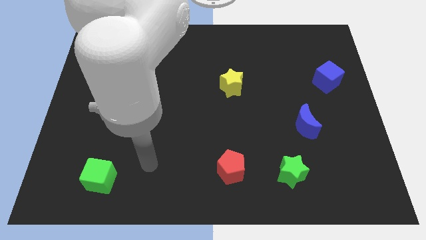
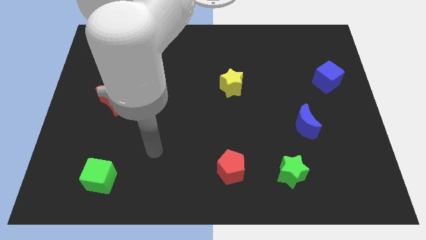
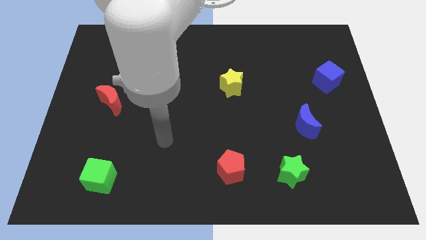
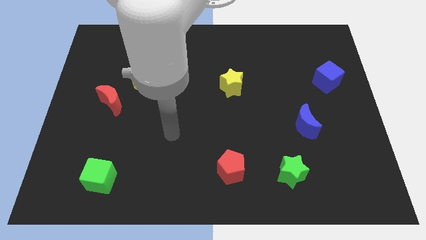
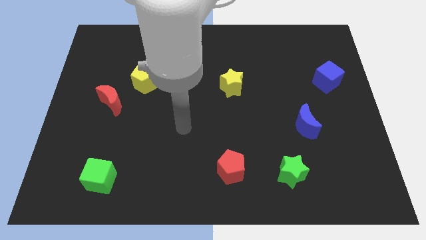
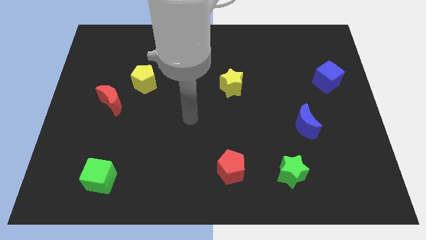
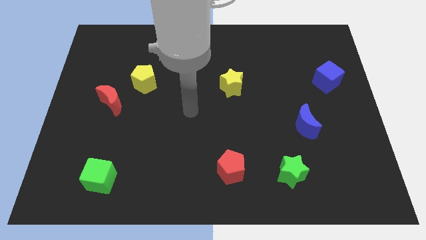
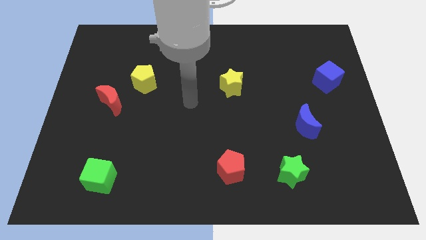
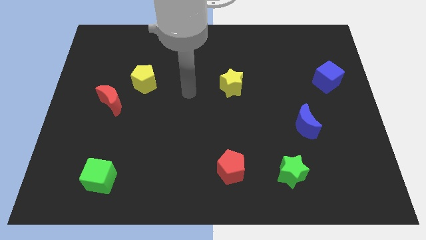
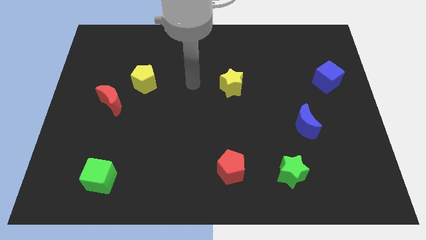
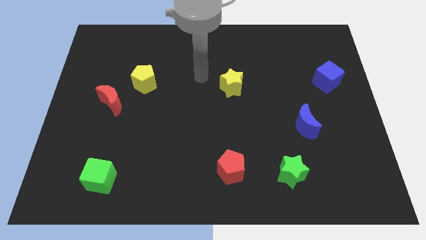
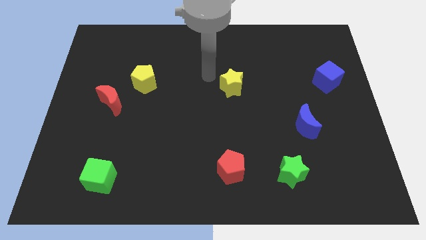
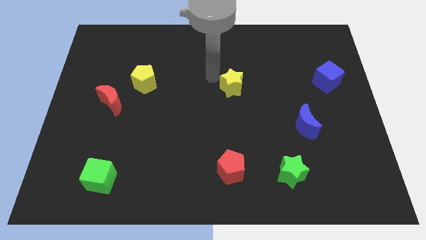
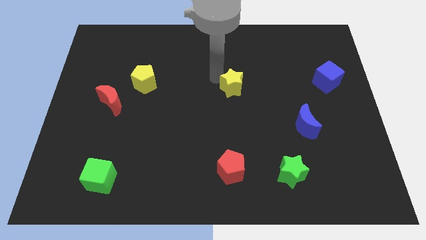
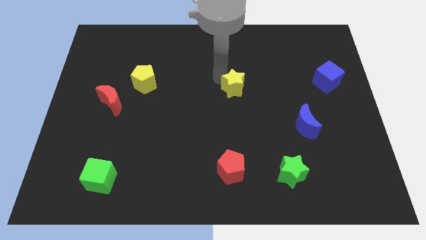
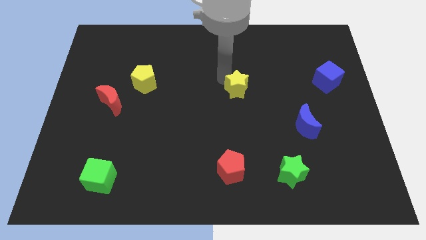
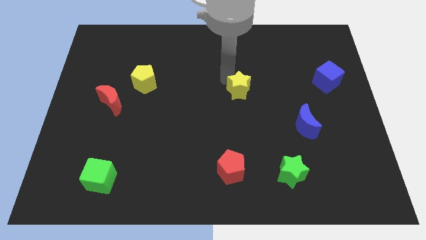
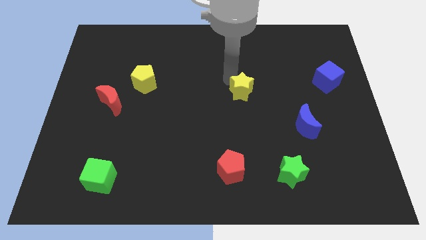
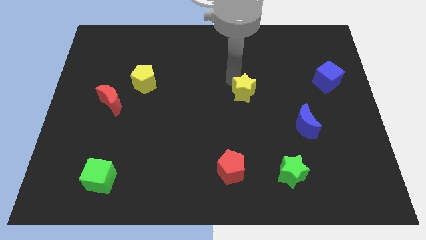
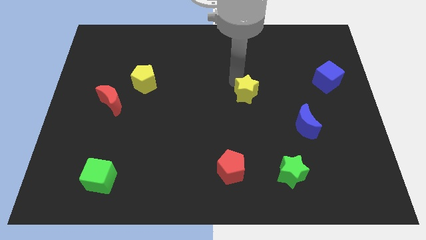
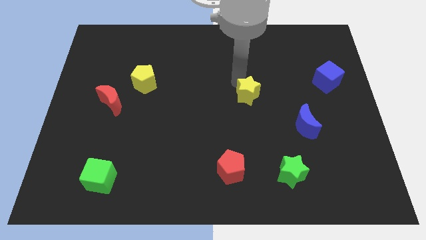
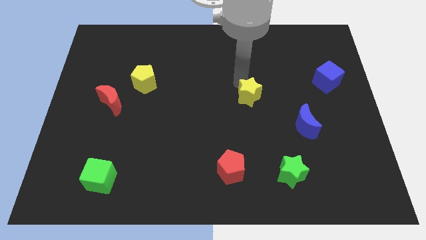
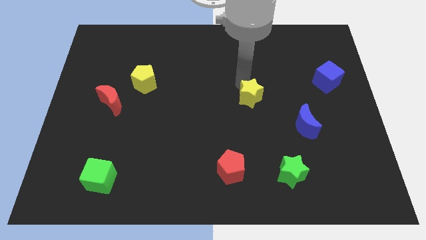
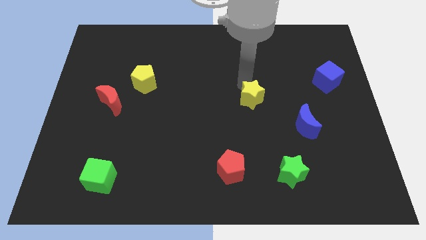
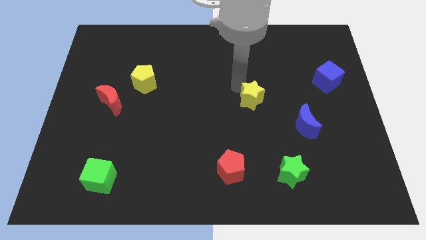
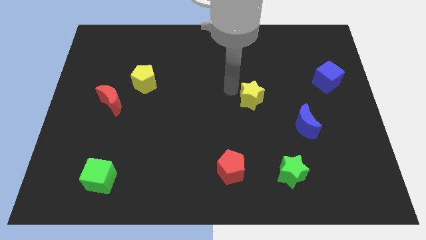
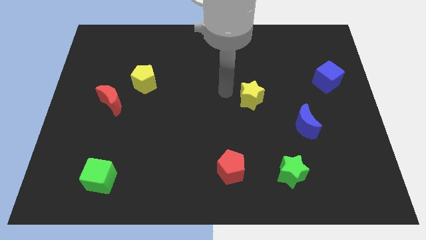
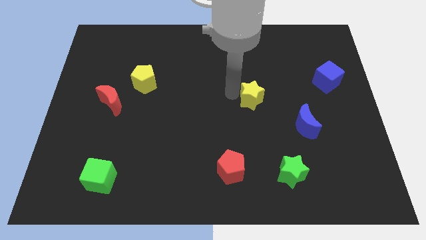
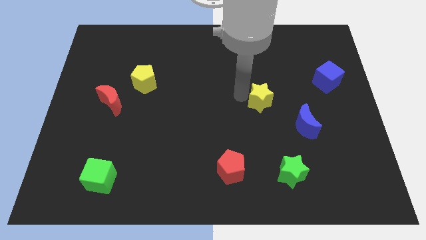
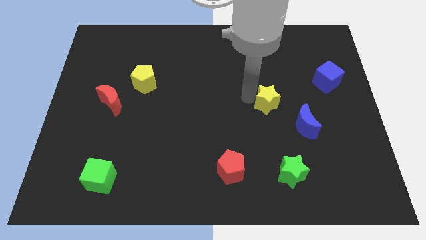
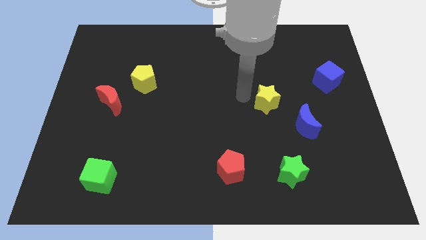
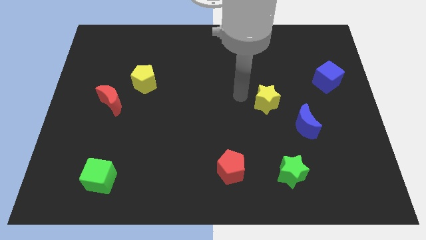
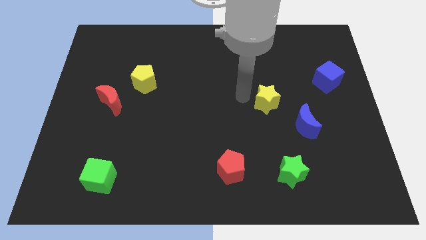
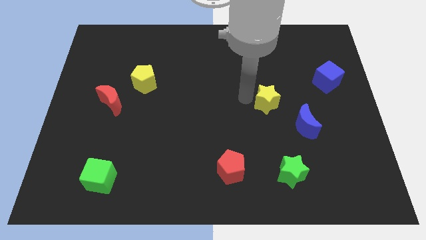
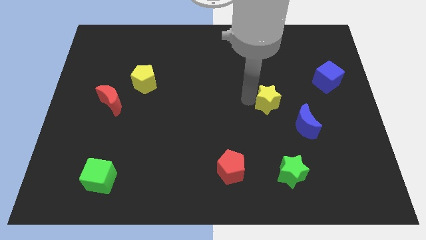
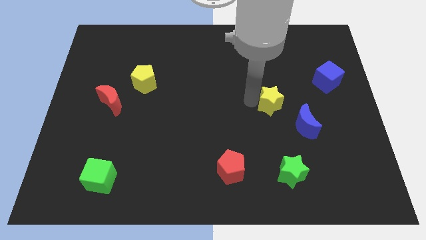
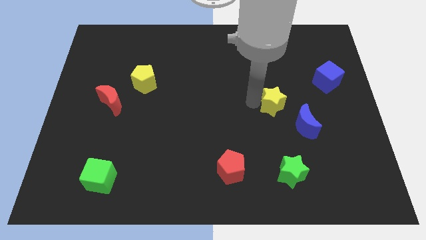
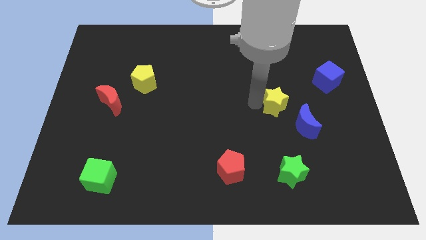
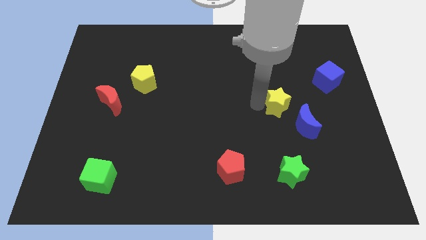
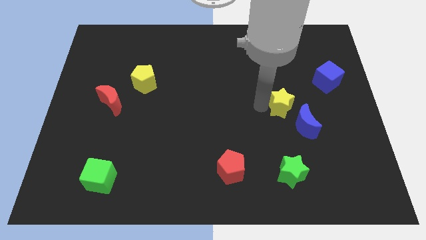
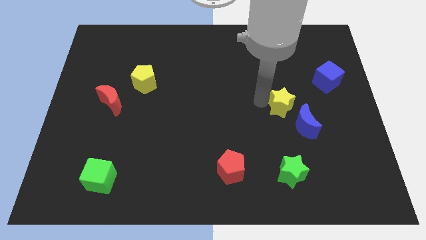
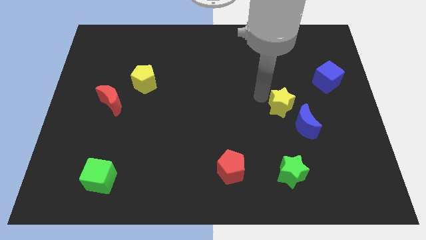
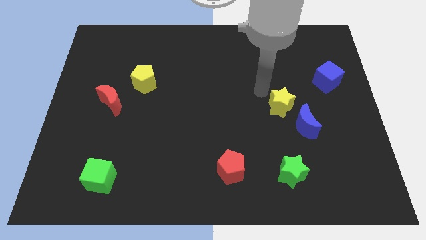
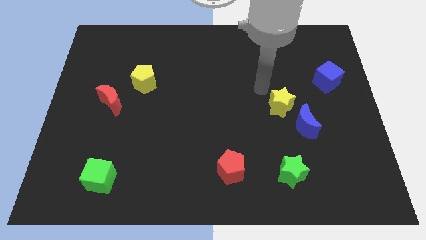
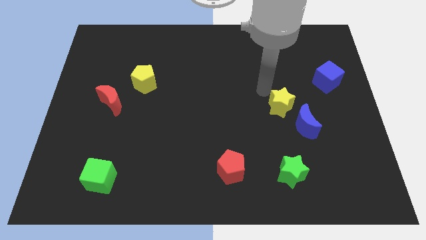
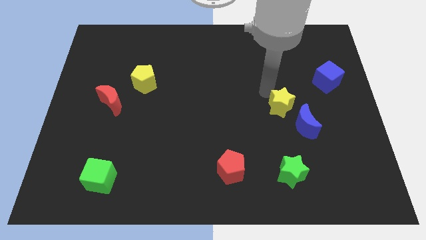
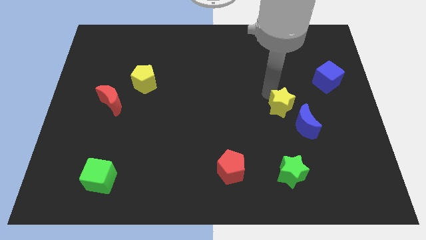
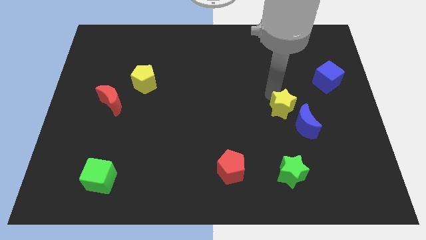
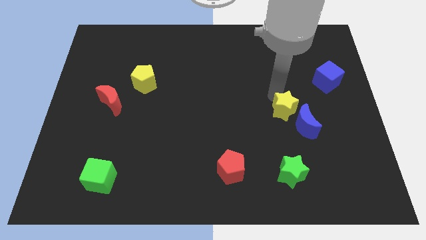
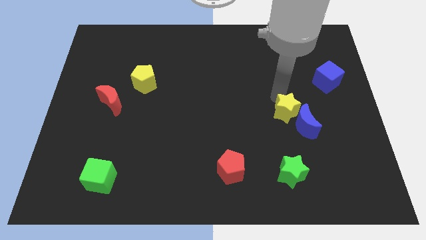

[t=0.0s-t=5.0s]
push the yellow star close to the blue moon

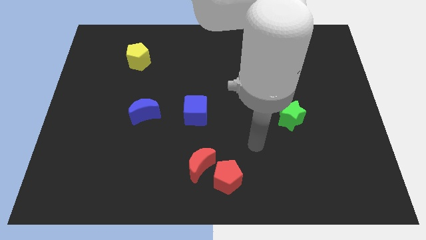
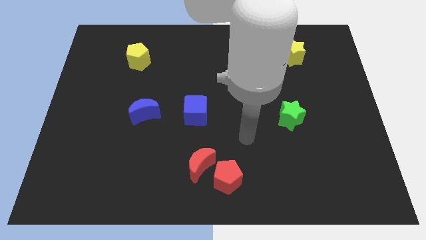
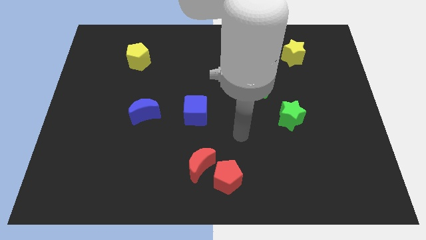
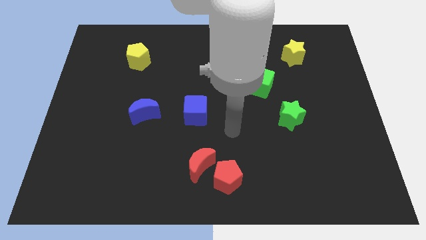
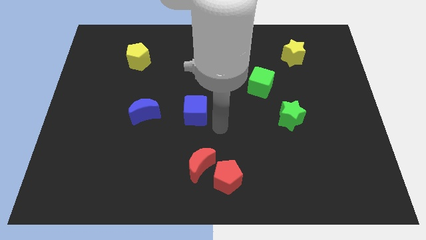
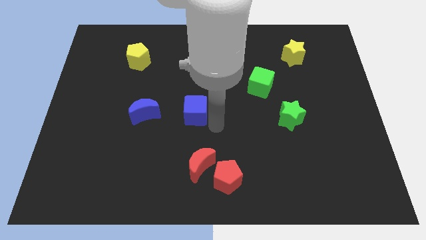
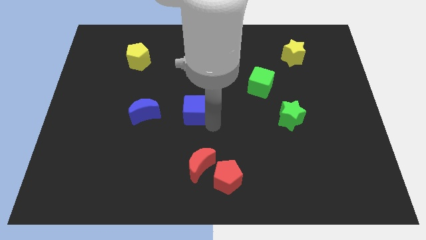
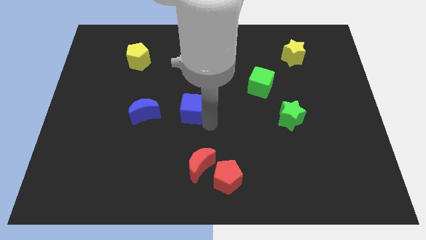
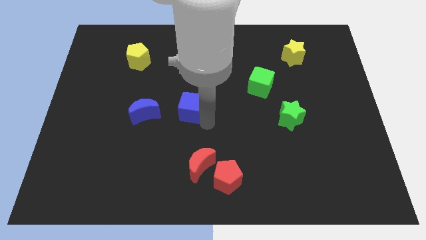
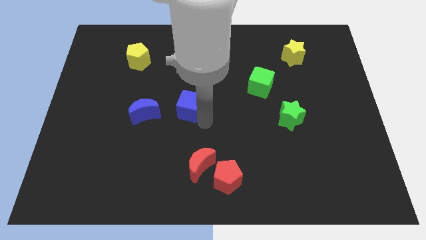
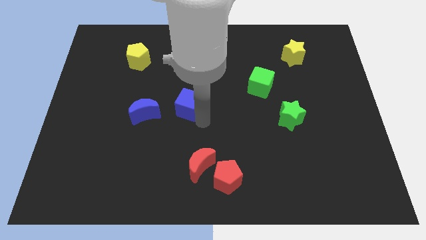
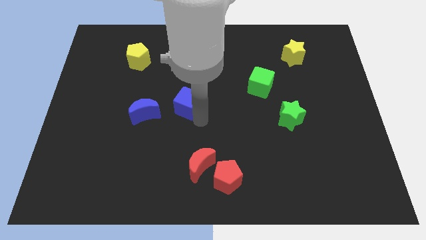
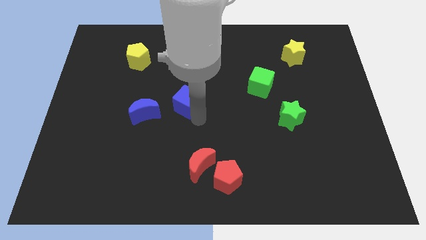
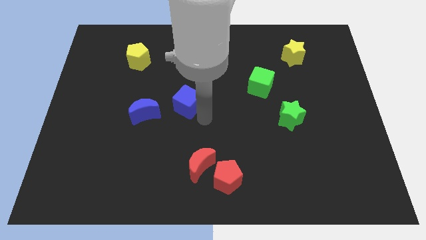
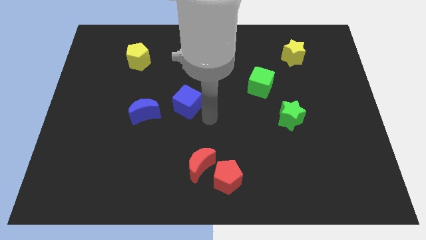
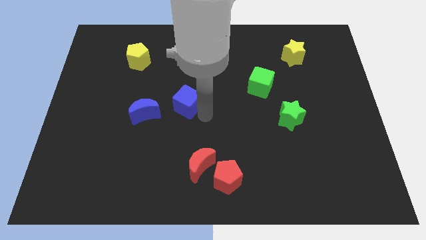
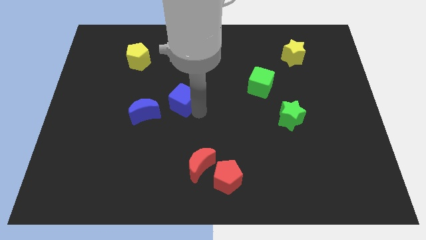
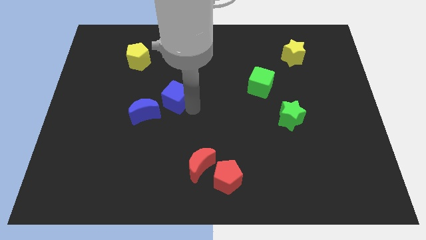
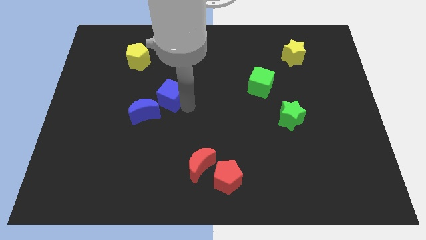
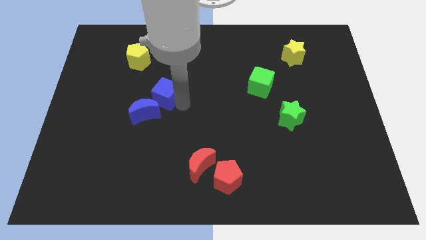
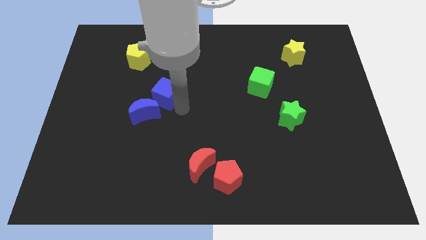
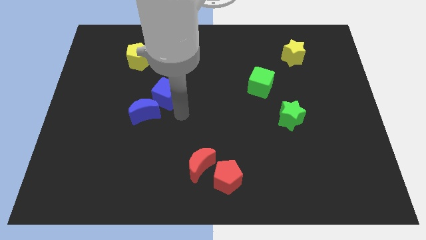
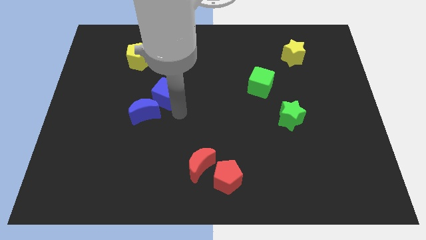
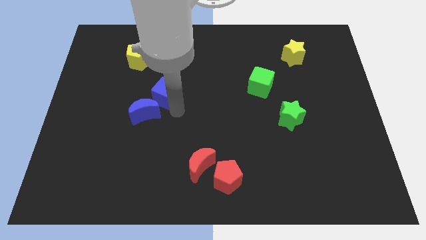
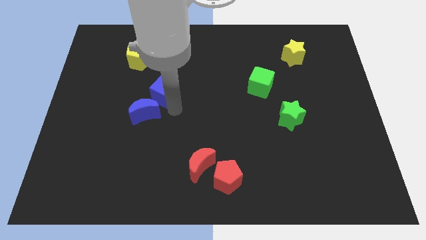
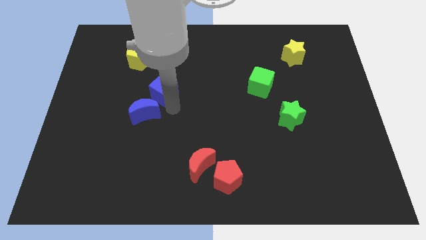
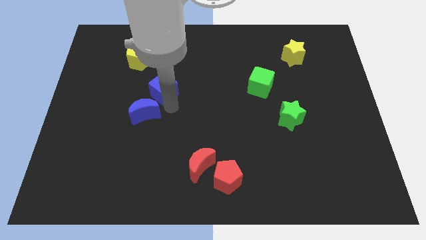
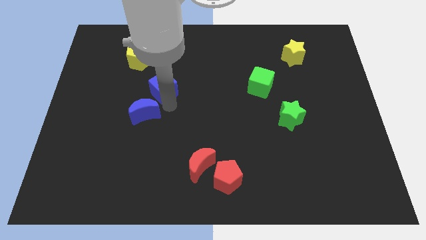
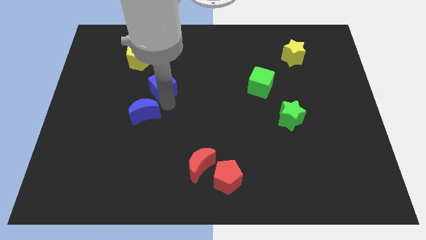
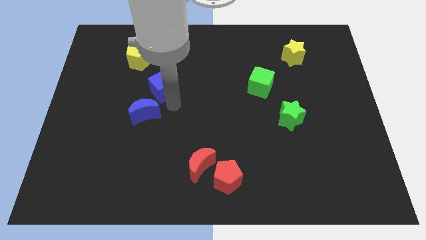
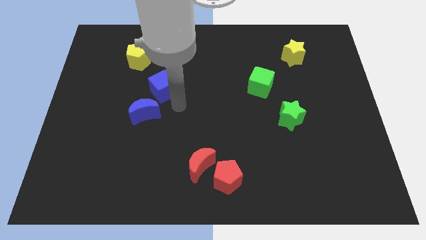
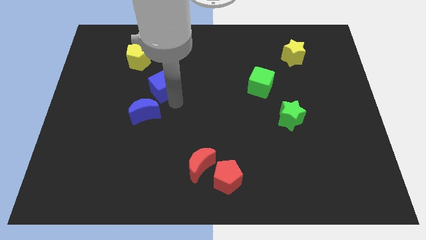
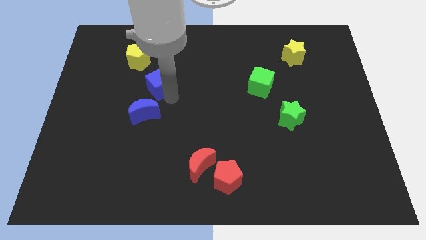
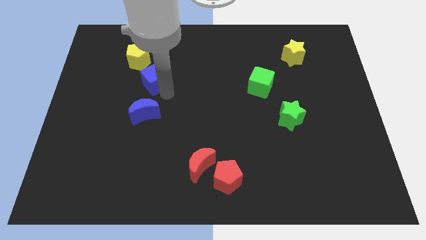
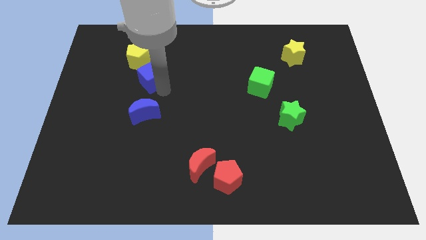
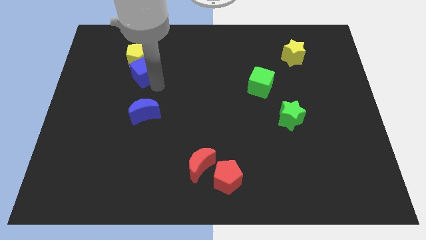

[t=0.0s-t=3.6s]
push the blue cube to the yellow pentagon
